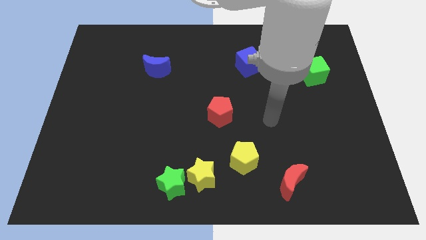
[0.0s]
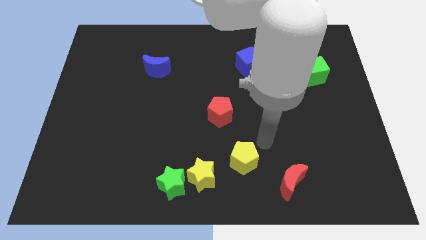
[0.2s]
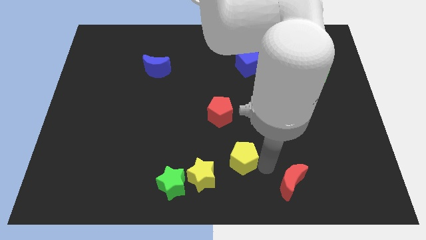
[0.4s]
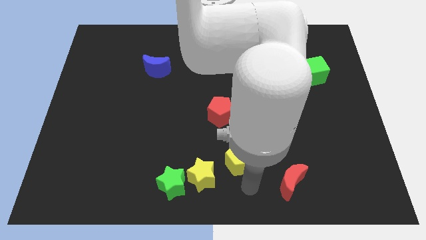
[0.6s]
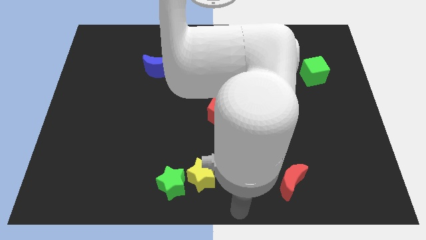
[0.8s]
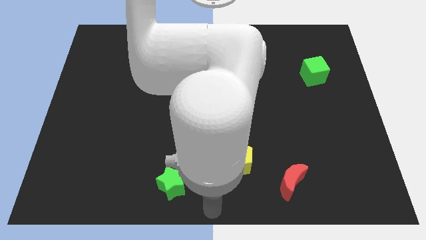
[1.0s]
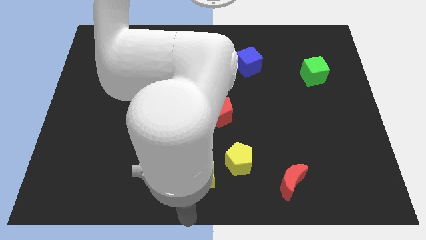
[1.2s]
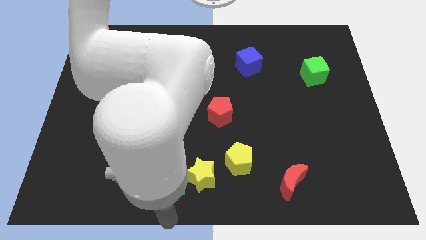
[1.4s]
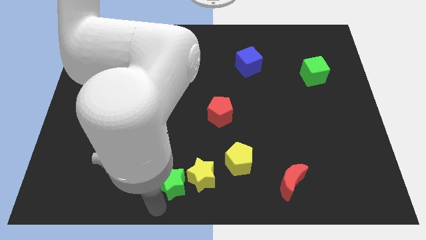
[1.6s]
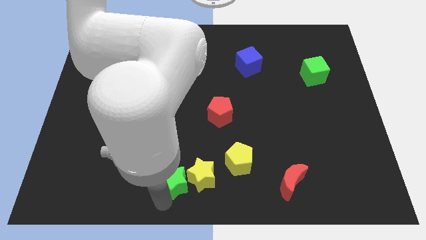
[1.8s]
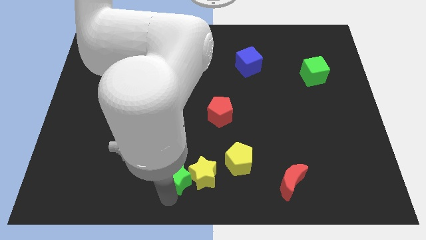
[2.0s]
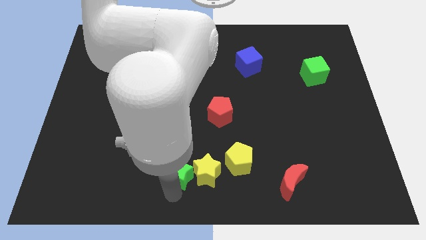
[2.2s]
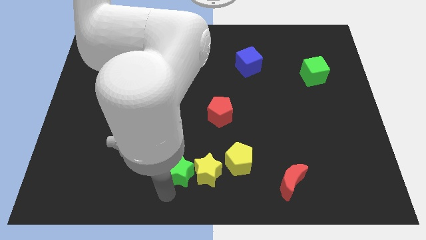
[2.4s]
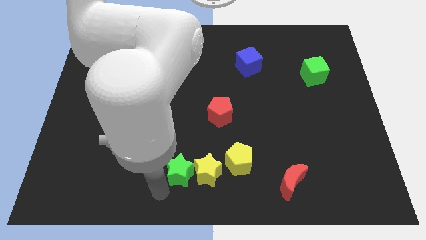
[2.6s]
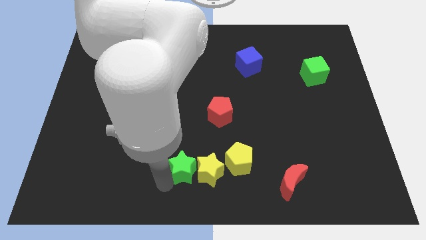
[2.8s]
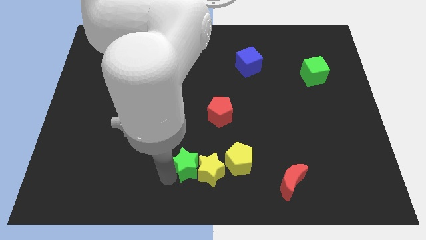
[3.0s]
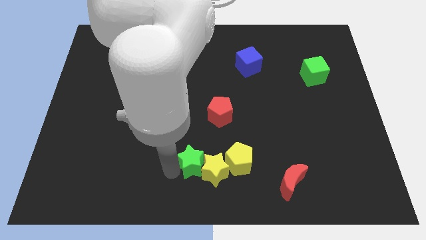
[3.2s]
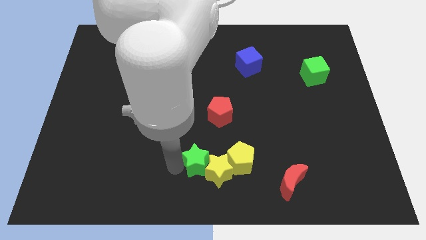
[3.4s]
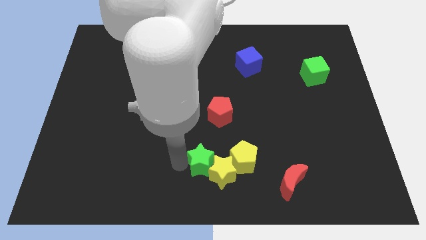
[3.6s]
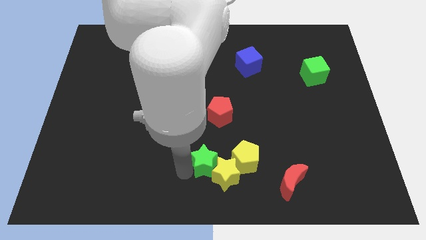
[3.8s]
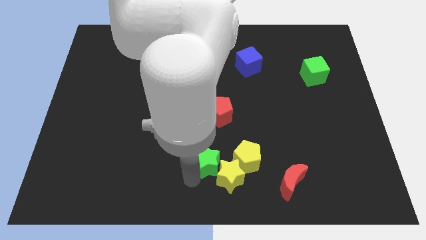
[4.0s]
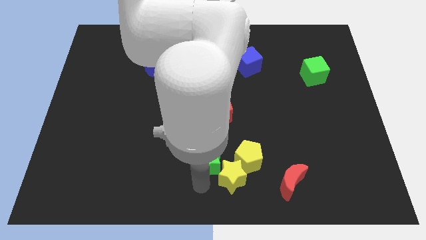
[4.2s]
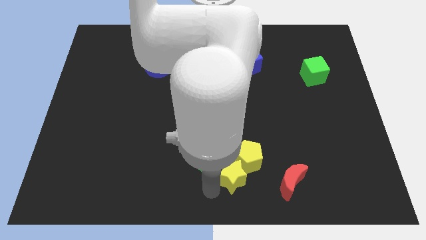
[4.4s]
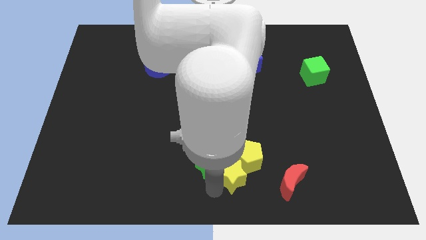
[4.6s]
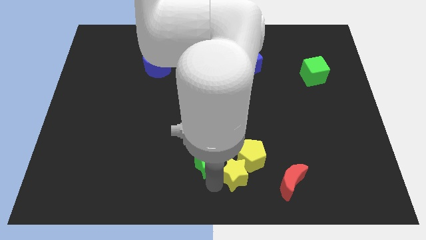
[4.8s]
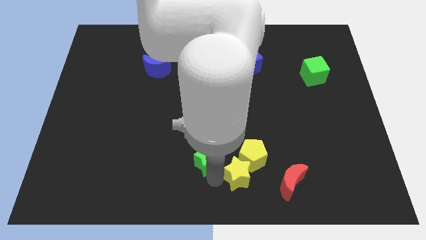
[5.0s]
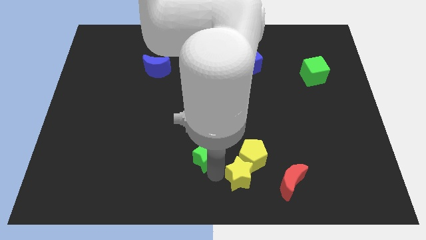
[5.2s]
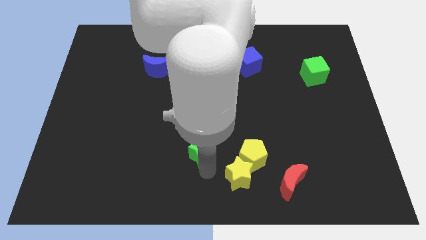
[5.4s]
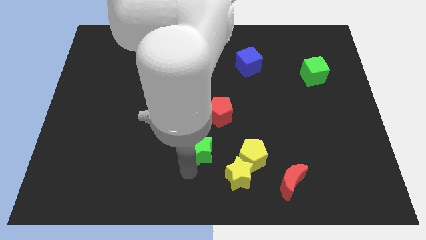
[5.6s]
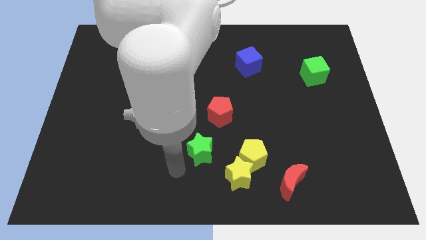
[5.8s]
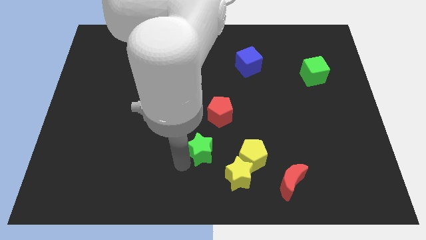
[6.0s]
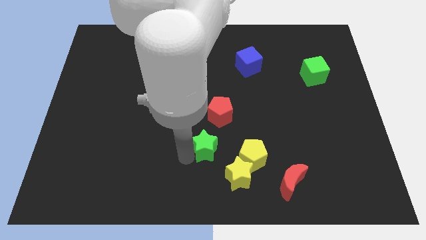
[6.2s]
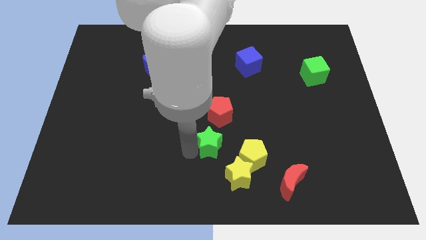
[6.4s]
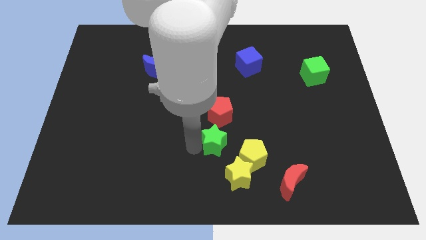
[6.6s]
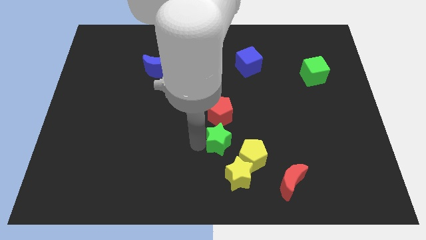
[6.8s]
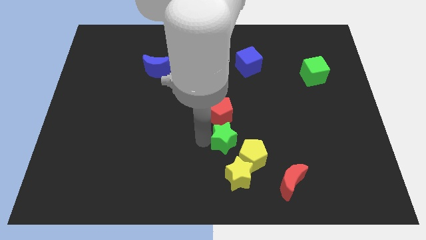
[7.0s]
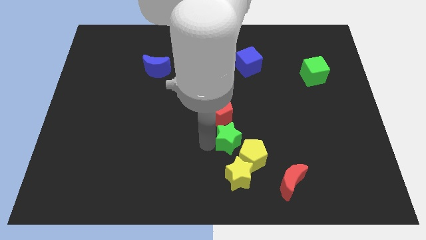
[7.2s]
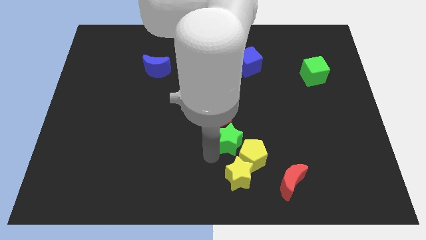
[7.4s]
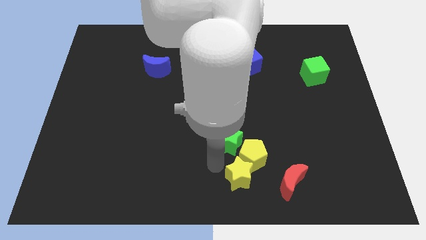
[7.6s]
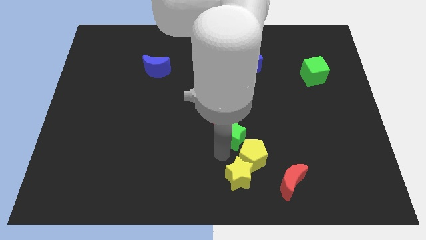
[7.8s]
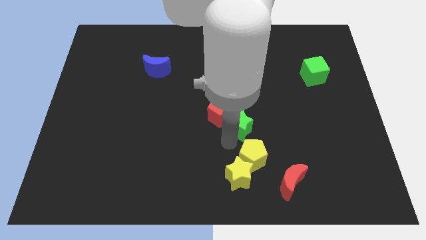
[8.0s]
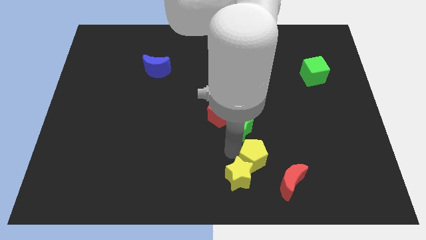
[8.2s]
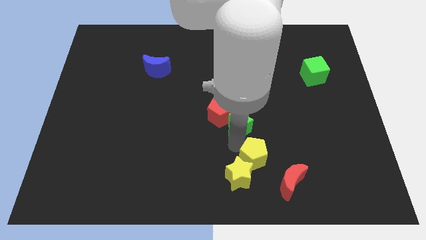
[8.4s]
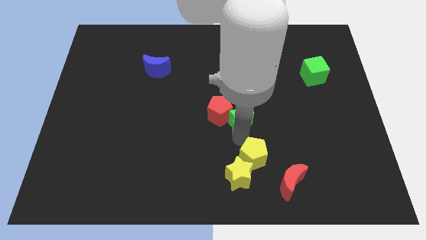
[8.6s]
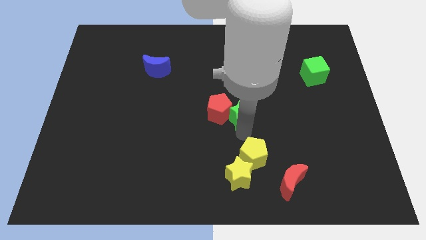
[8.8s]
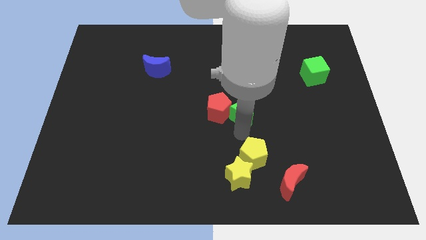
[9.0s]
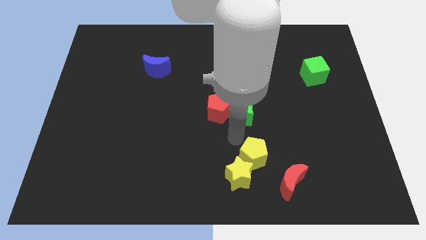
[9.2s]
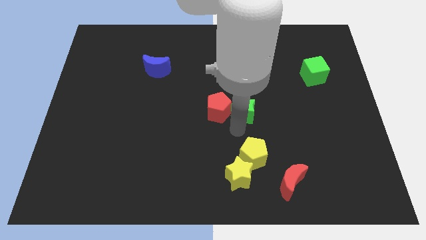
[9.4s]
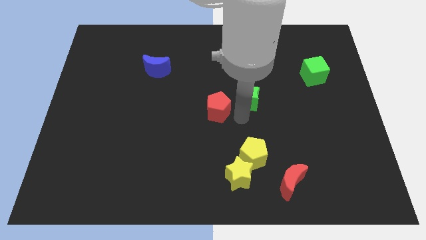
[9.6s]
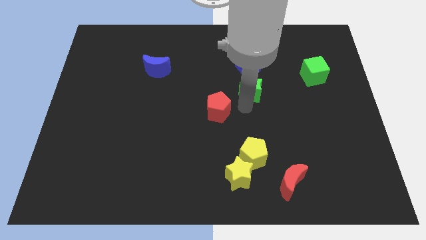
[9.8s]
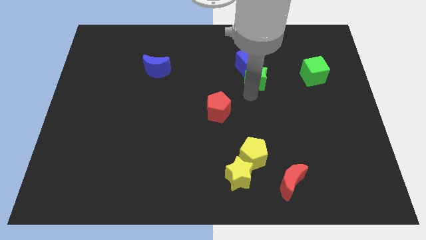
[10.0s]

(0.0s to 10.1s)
push the green star close to the blue cube

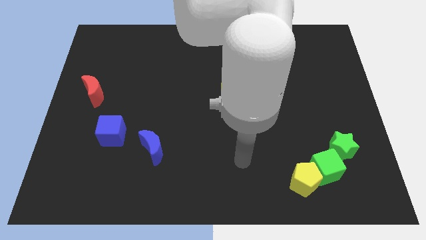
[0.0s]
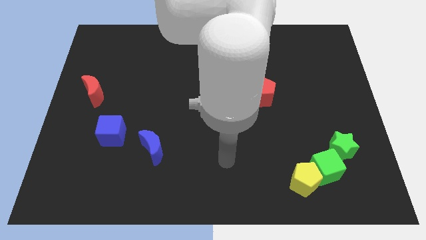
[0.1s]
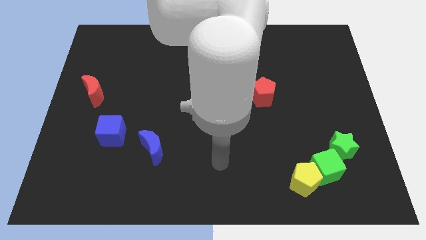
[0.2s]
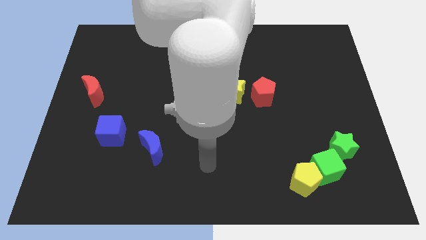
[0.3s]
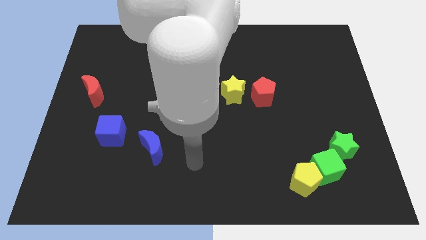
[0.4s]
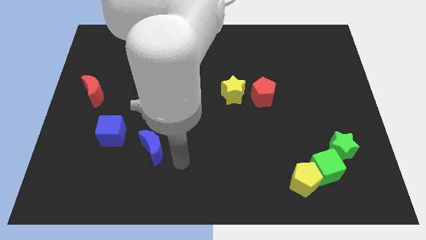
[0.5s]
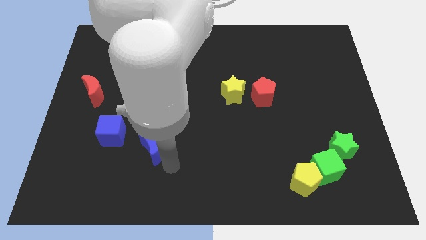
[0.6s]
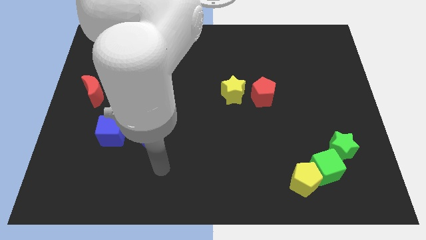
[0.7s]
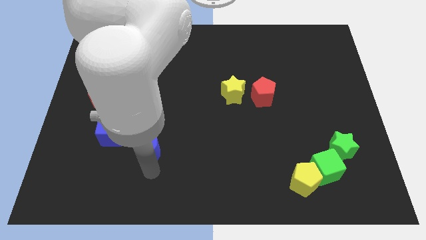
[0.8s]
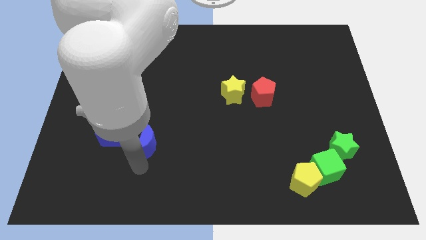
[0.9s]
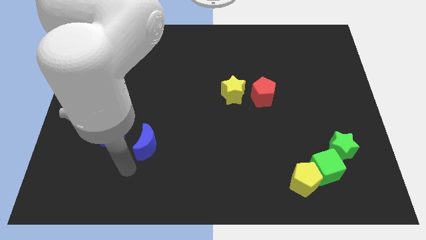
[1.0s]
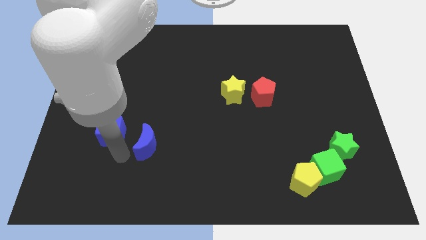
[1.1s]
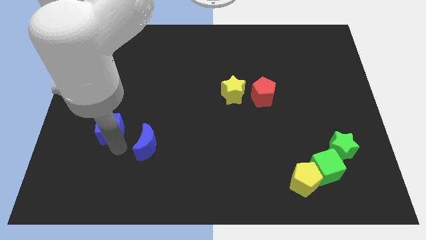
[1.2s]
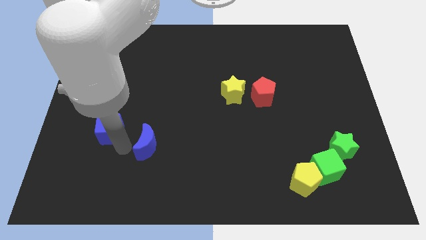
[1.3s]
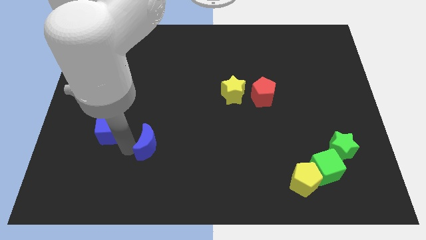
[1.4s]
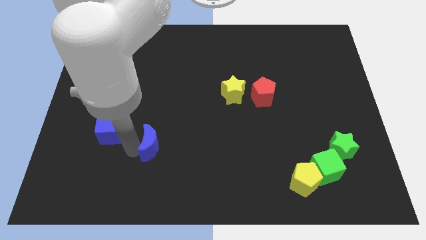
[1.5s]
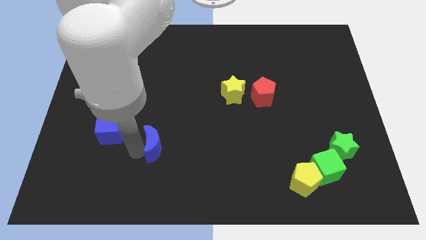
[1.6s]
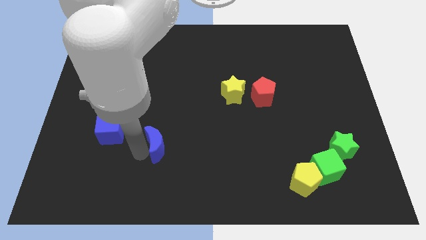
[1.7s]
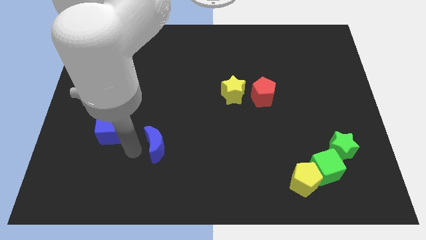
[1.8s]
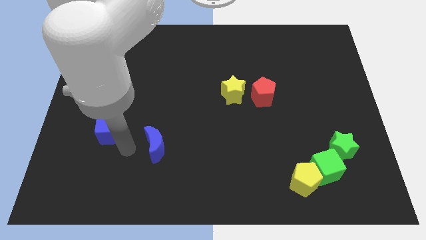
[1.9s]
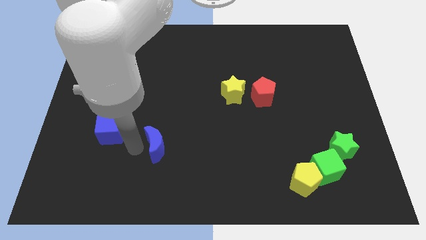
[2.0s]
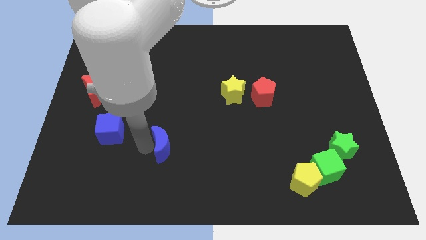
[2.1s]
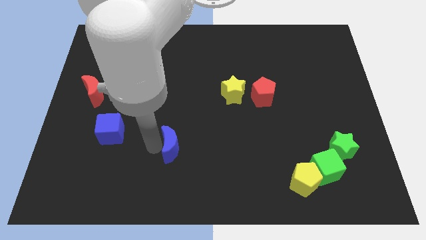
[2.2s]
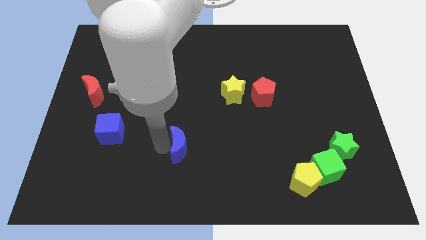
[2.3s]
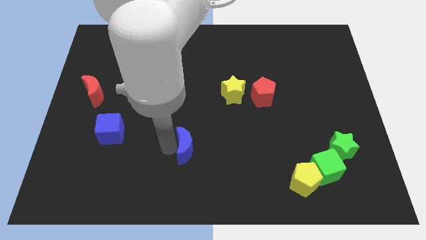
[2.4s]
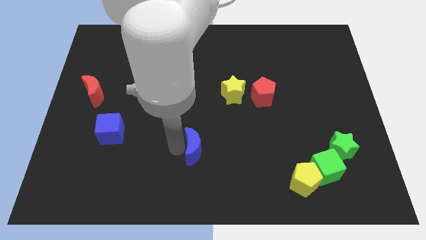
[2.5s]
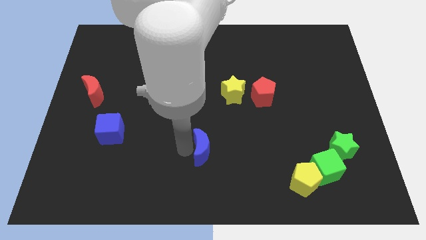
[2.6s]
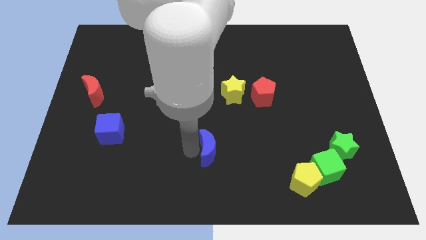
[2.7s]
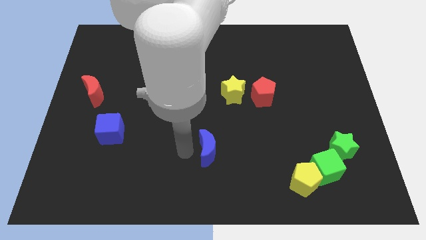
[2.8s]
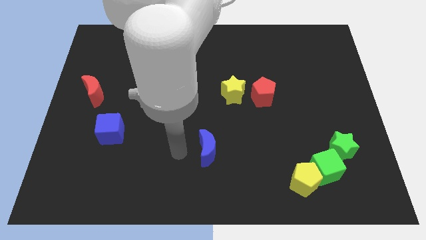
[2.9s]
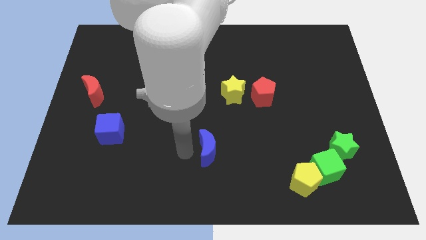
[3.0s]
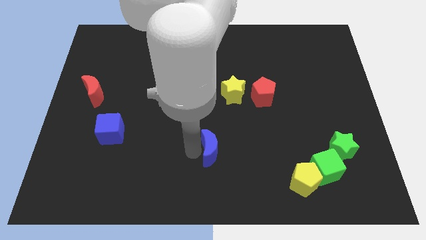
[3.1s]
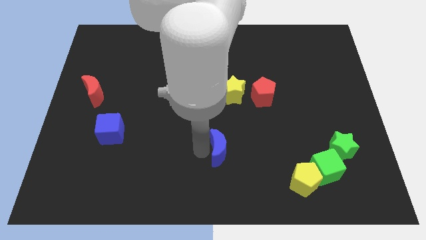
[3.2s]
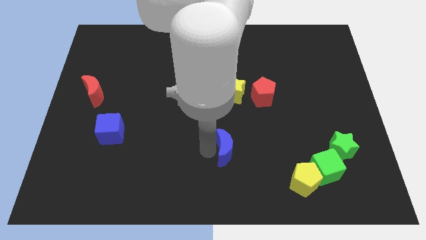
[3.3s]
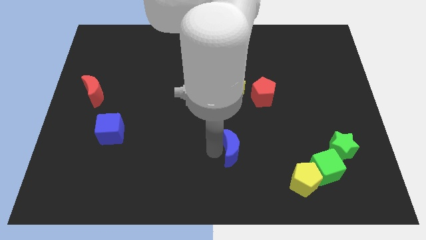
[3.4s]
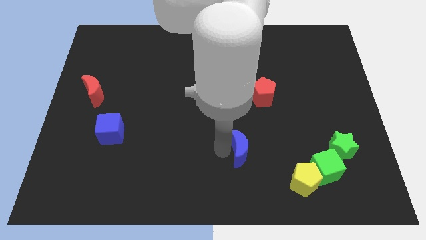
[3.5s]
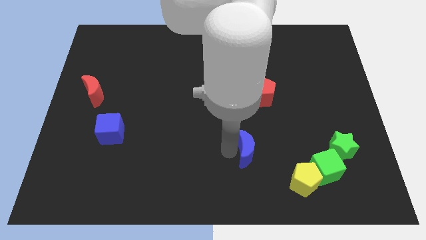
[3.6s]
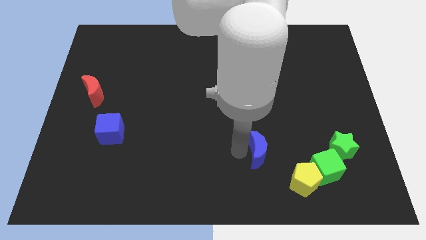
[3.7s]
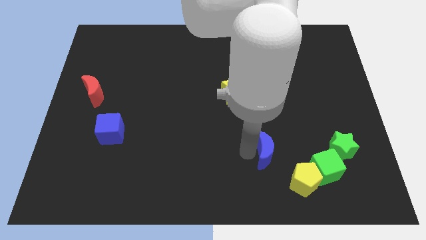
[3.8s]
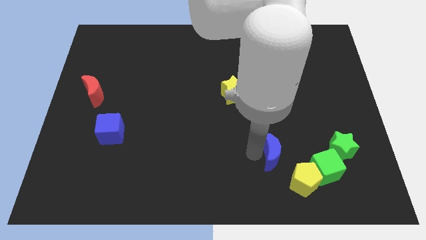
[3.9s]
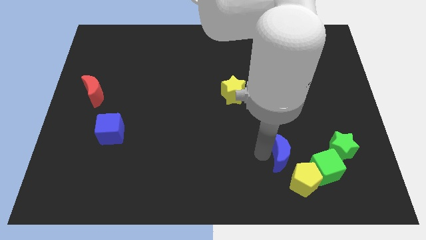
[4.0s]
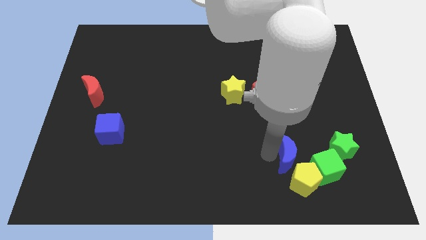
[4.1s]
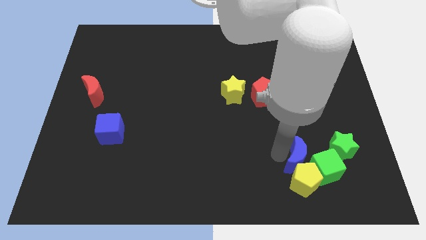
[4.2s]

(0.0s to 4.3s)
put the blue moon towards the green cube
